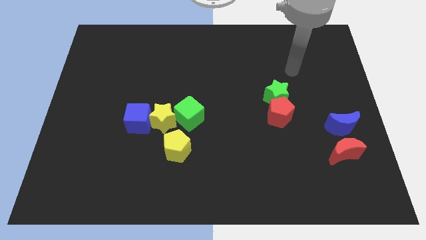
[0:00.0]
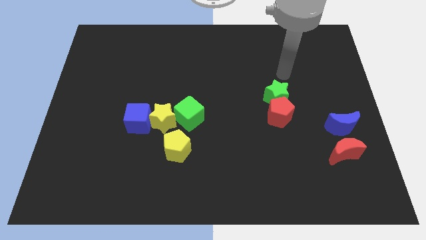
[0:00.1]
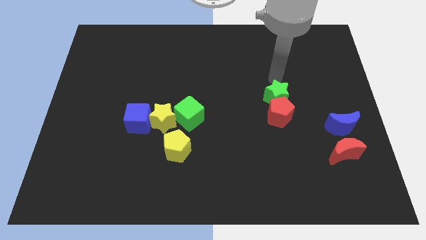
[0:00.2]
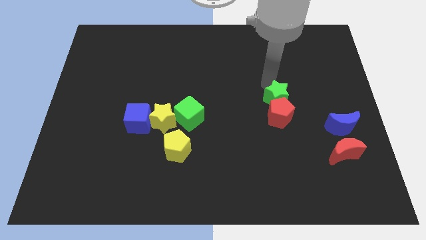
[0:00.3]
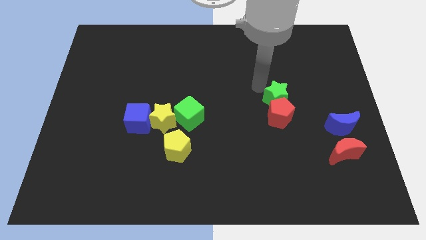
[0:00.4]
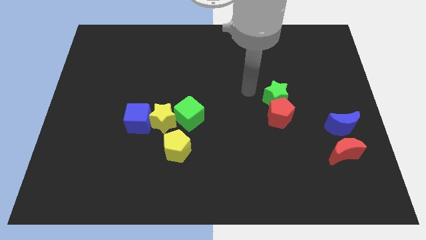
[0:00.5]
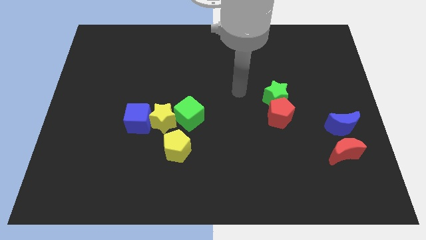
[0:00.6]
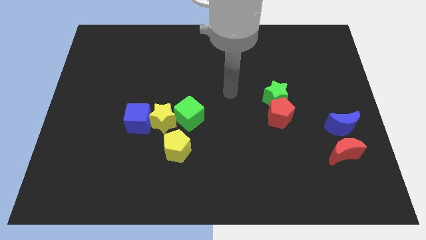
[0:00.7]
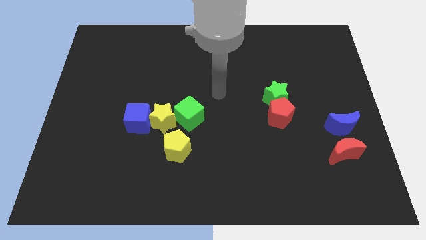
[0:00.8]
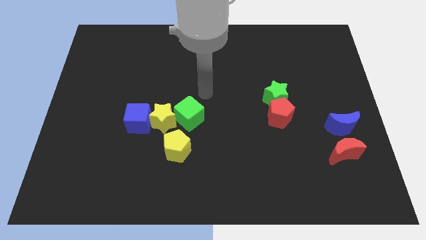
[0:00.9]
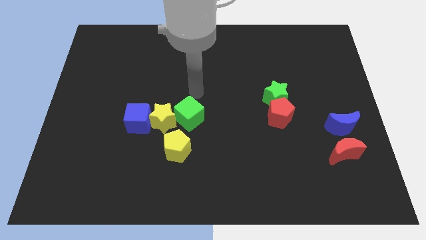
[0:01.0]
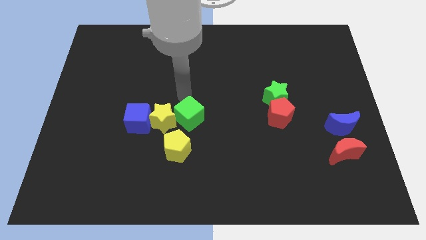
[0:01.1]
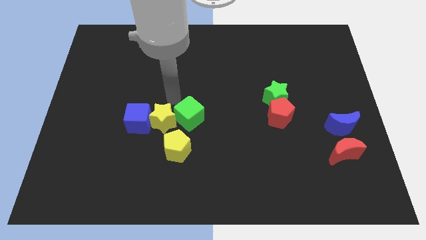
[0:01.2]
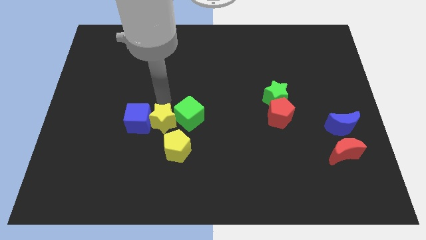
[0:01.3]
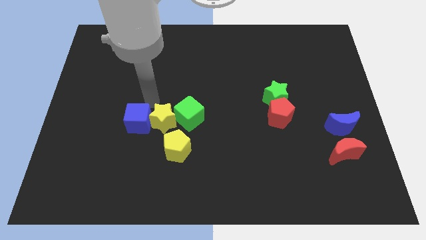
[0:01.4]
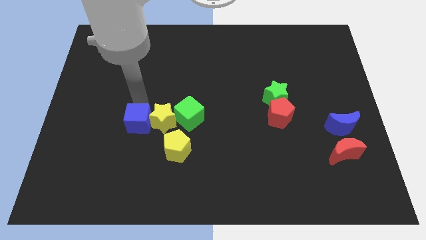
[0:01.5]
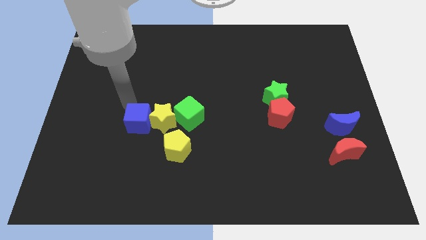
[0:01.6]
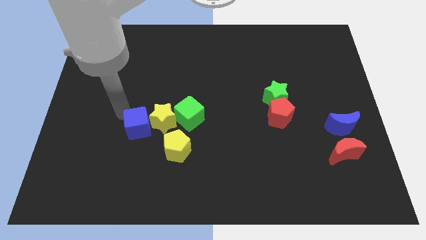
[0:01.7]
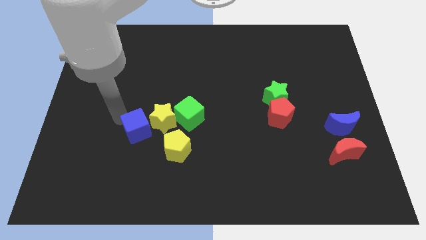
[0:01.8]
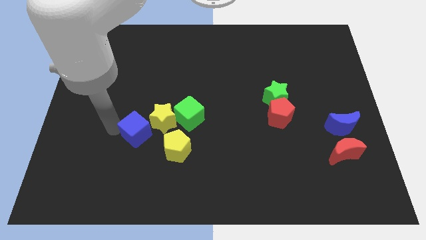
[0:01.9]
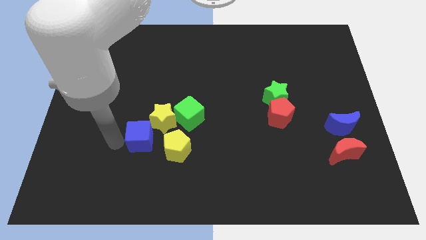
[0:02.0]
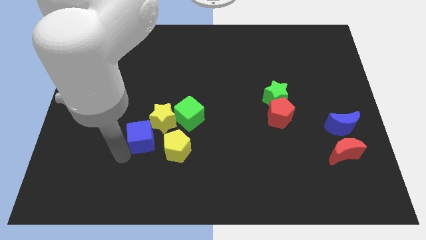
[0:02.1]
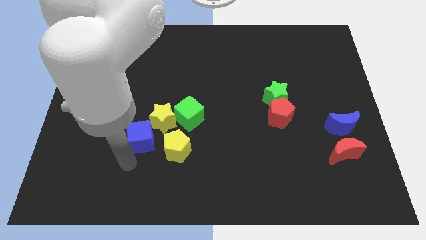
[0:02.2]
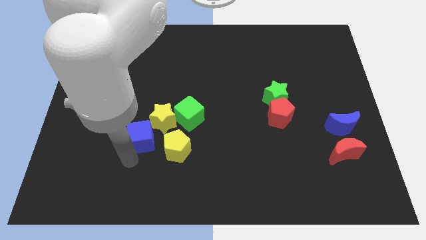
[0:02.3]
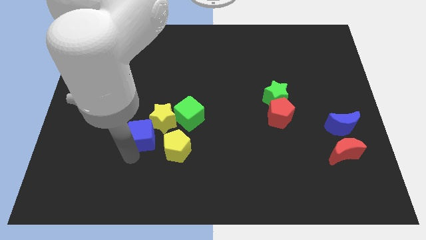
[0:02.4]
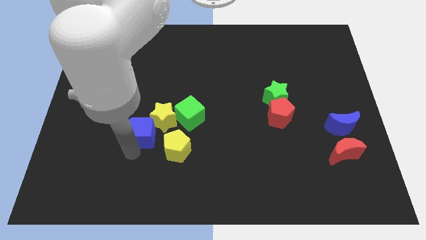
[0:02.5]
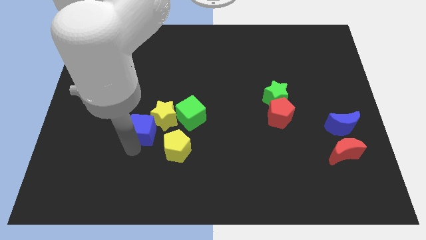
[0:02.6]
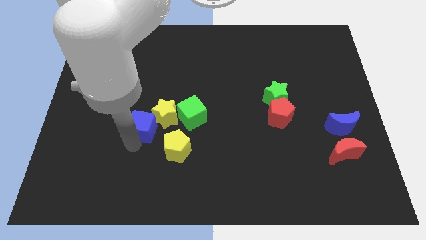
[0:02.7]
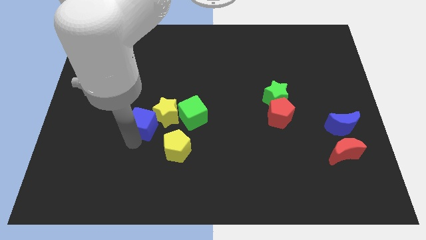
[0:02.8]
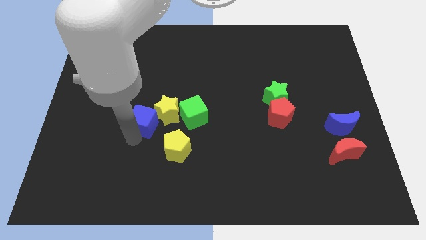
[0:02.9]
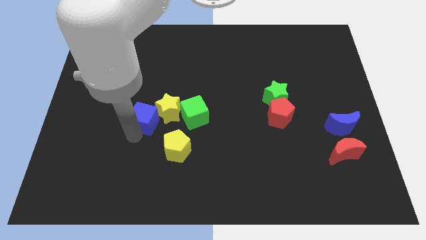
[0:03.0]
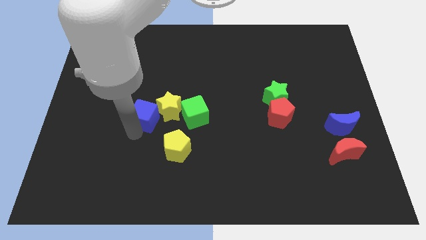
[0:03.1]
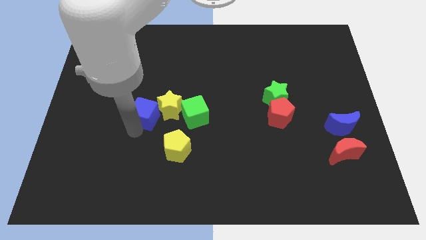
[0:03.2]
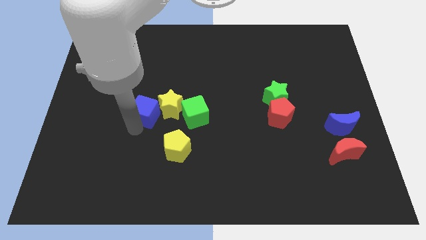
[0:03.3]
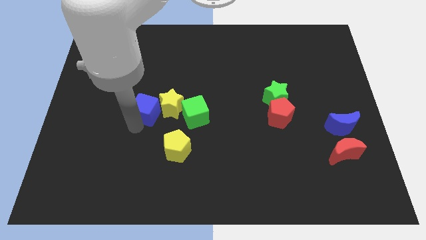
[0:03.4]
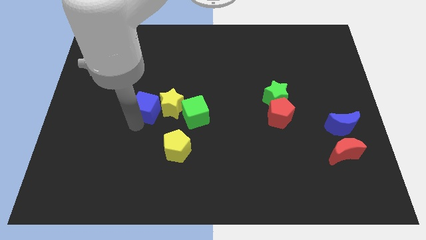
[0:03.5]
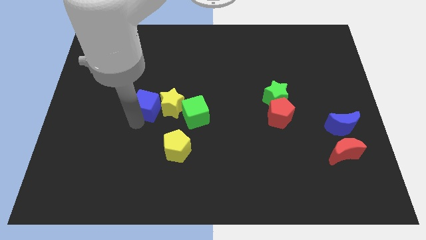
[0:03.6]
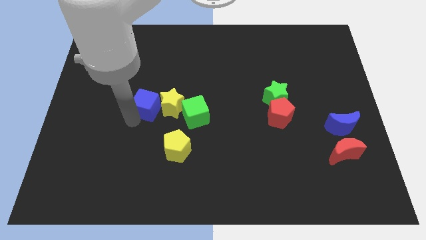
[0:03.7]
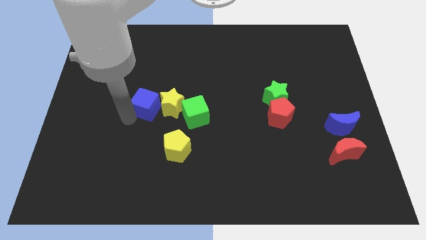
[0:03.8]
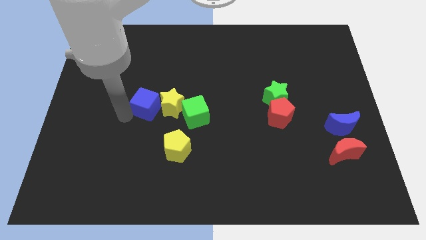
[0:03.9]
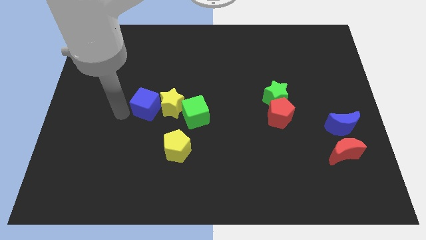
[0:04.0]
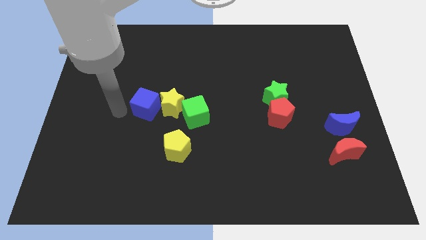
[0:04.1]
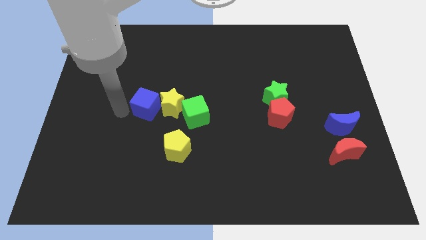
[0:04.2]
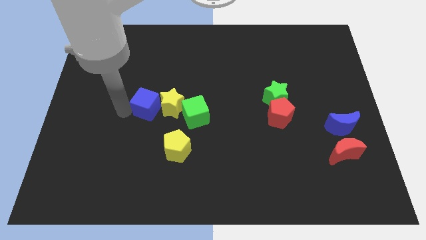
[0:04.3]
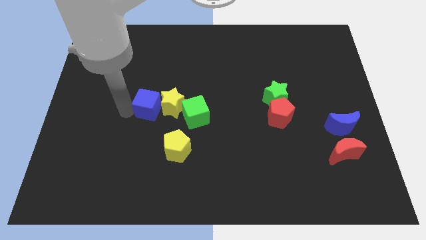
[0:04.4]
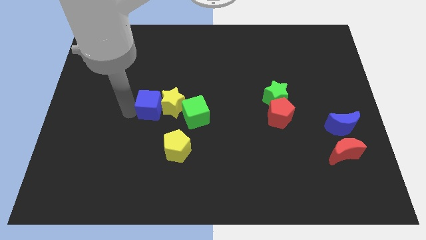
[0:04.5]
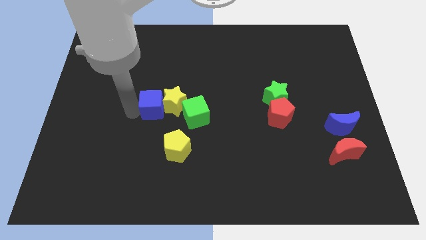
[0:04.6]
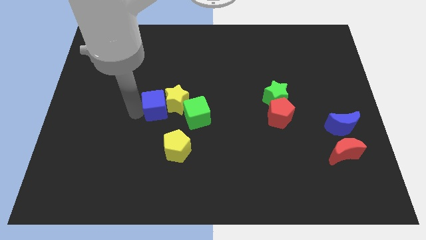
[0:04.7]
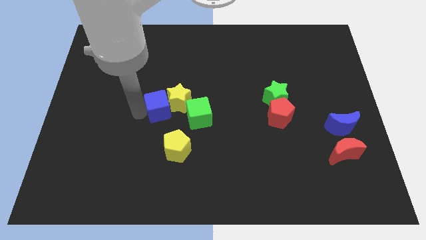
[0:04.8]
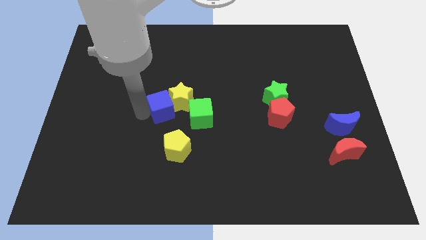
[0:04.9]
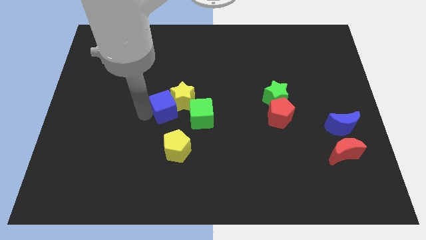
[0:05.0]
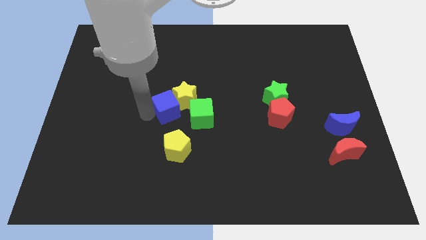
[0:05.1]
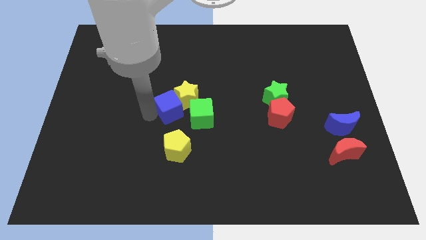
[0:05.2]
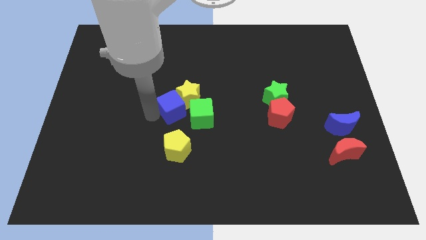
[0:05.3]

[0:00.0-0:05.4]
move the blue cube a little bit to the right

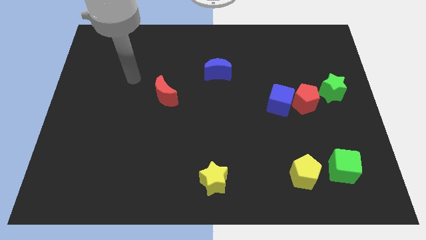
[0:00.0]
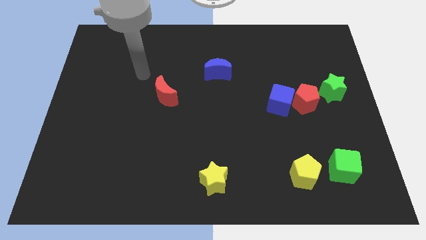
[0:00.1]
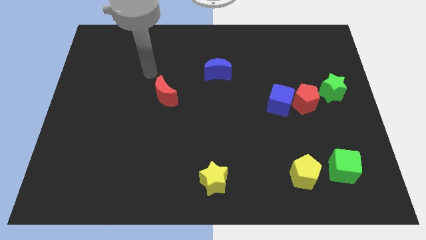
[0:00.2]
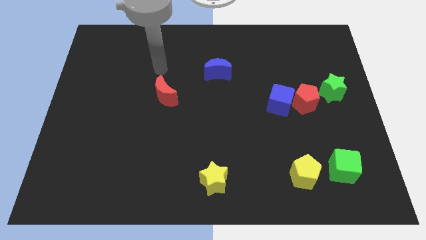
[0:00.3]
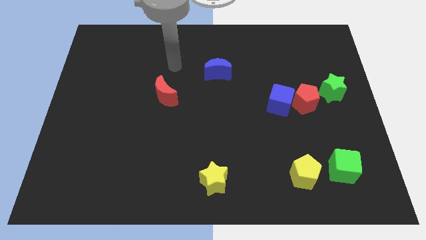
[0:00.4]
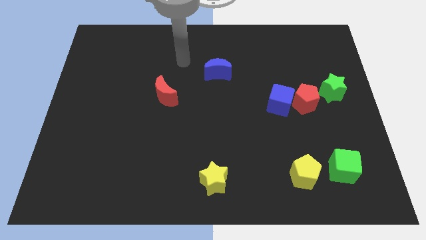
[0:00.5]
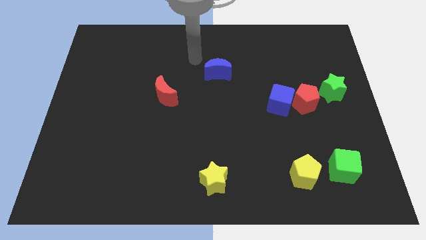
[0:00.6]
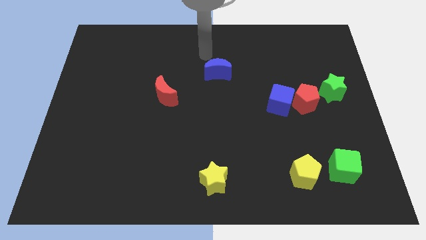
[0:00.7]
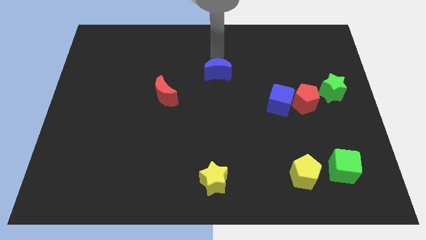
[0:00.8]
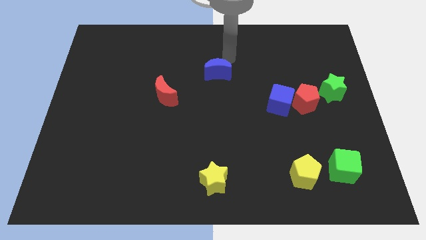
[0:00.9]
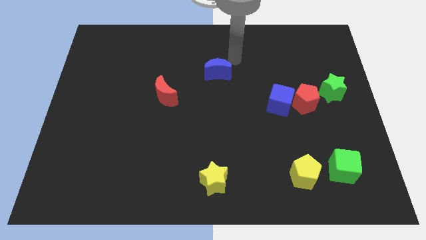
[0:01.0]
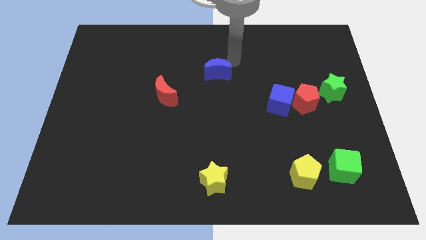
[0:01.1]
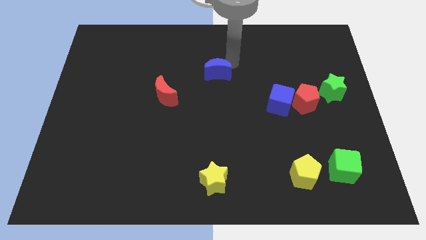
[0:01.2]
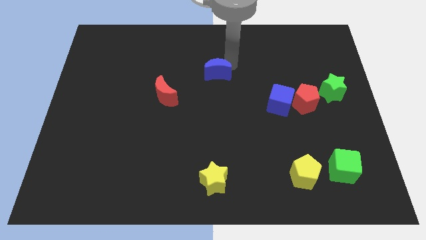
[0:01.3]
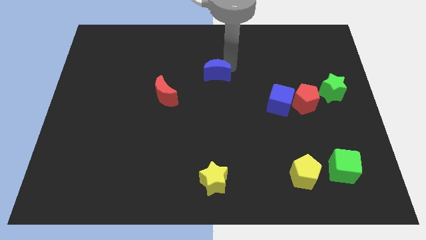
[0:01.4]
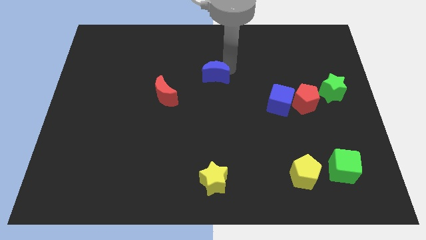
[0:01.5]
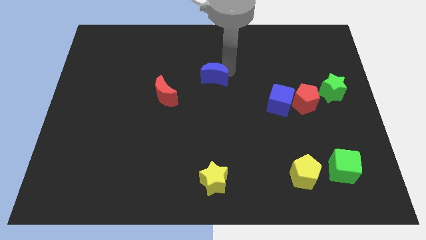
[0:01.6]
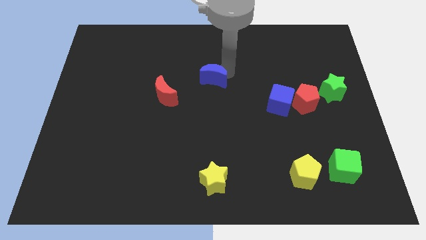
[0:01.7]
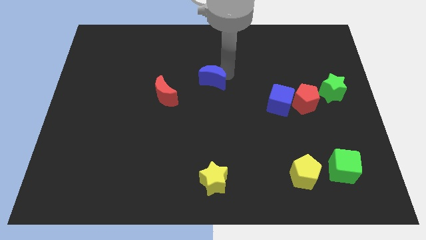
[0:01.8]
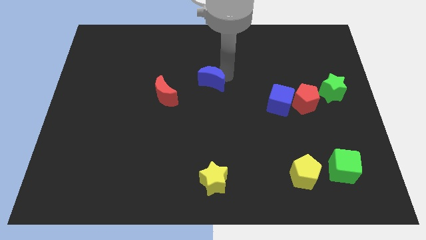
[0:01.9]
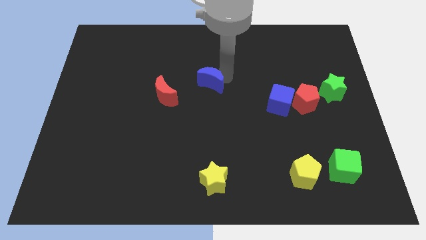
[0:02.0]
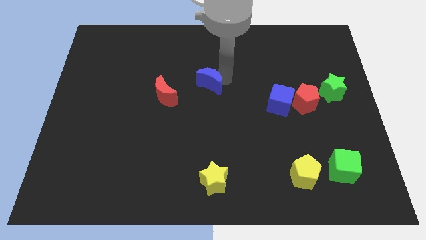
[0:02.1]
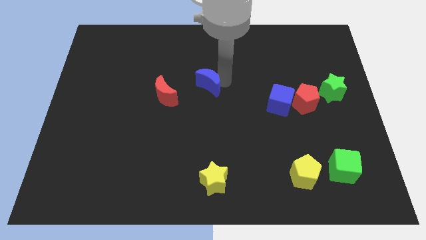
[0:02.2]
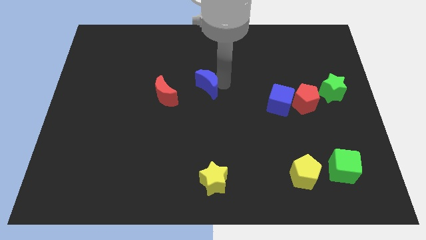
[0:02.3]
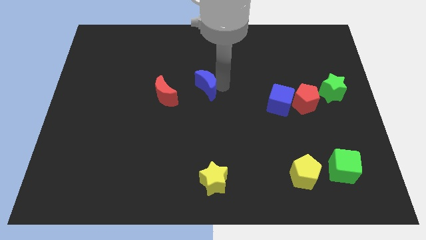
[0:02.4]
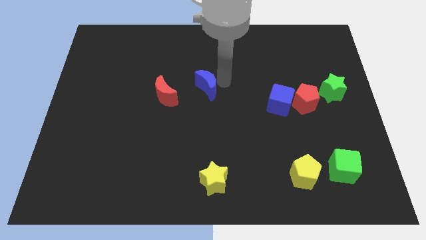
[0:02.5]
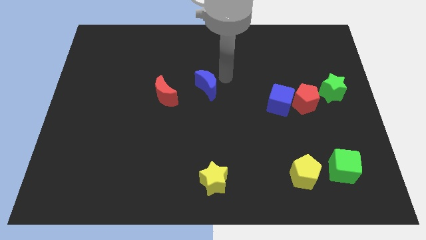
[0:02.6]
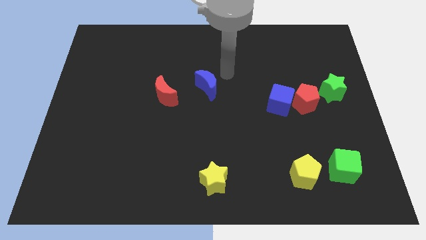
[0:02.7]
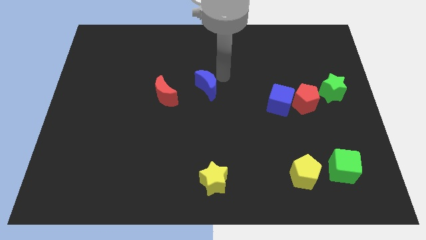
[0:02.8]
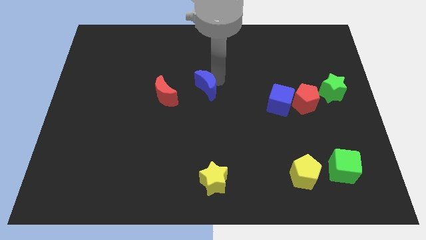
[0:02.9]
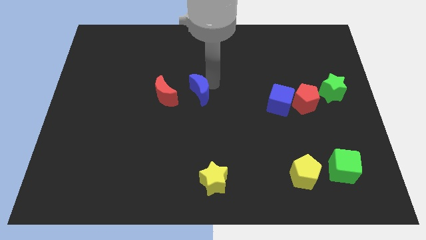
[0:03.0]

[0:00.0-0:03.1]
move the blue moon down and then to the left a bit
